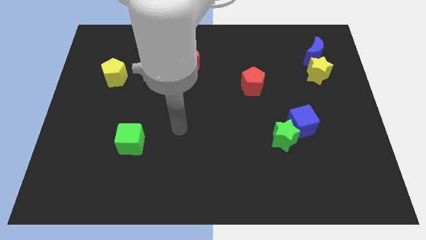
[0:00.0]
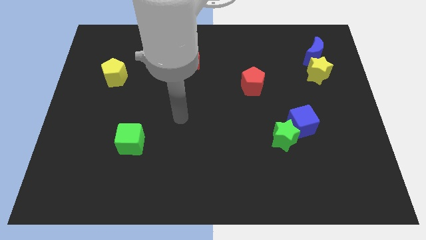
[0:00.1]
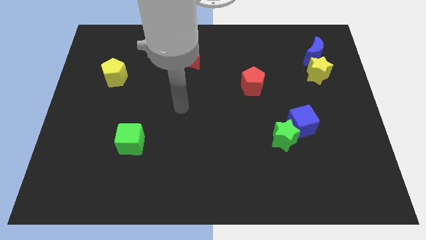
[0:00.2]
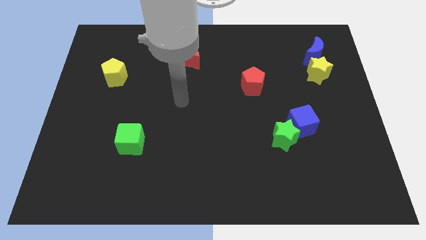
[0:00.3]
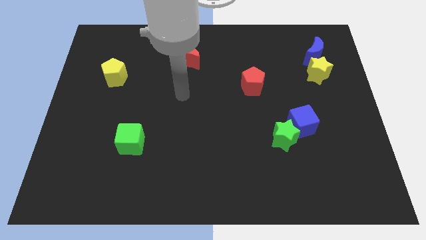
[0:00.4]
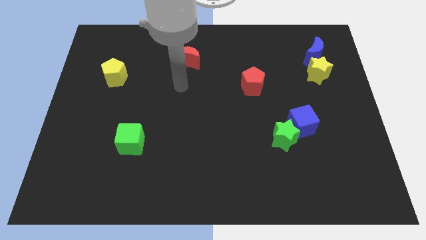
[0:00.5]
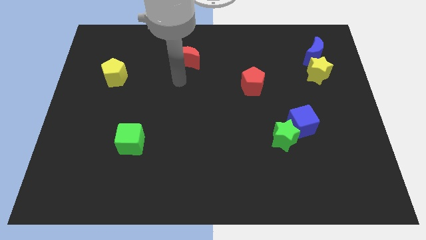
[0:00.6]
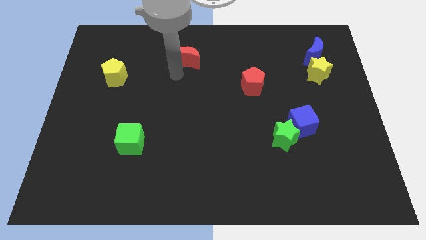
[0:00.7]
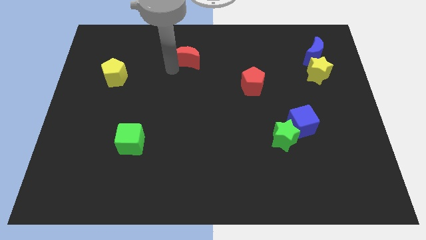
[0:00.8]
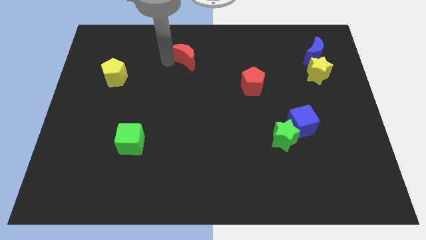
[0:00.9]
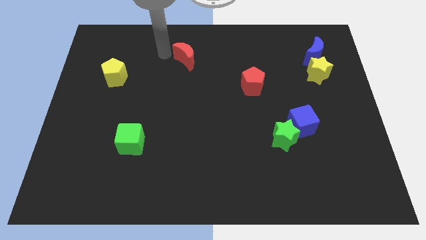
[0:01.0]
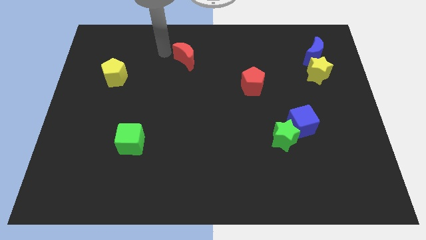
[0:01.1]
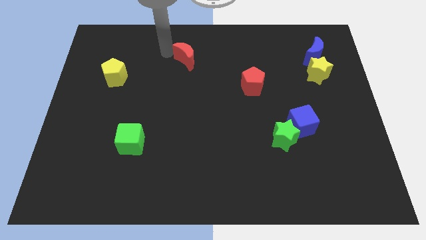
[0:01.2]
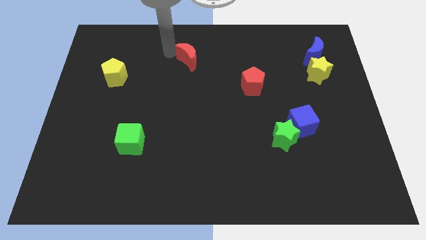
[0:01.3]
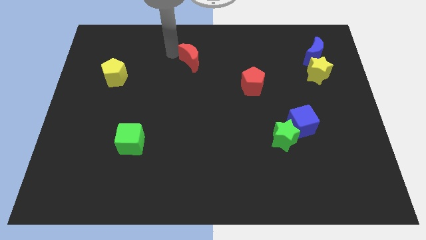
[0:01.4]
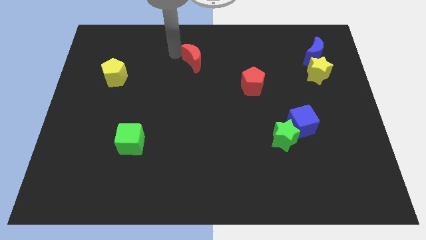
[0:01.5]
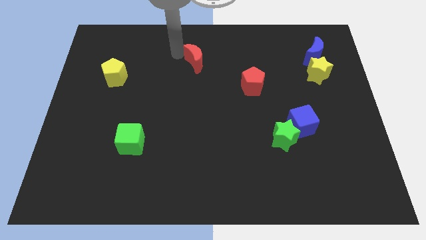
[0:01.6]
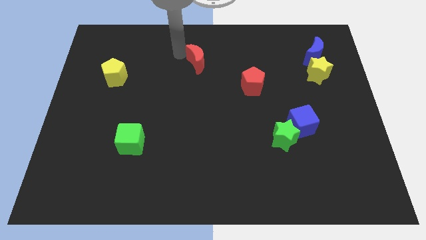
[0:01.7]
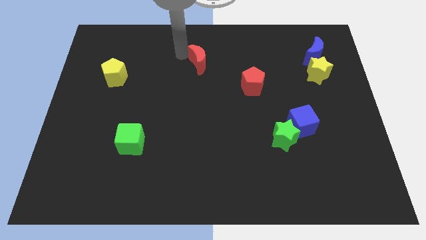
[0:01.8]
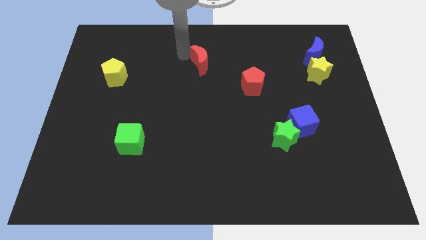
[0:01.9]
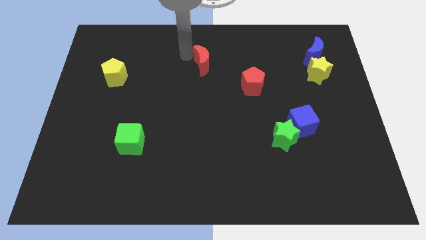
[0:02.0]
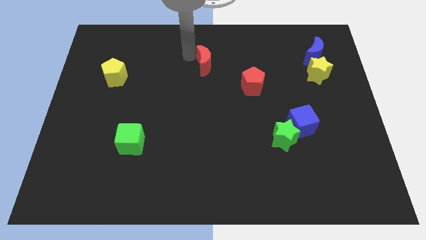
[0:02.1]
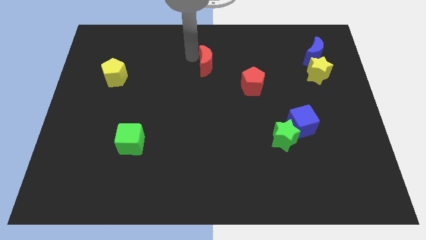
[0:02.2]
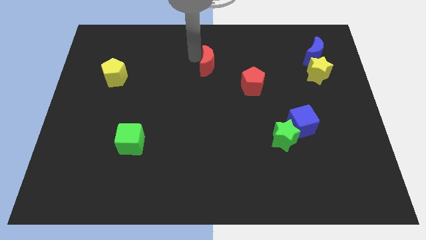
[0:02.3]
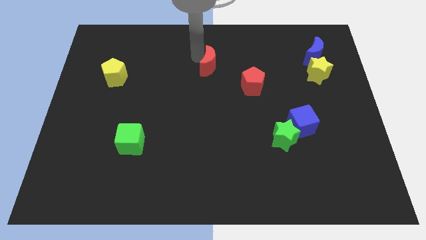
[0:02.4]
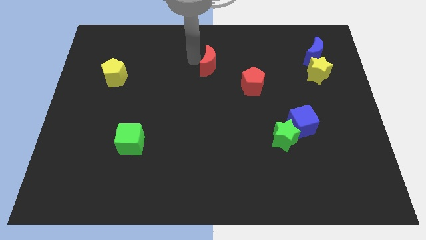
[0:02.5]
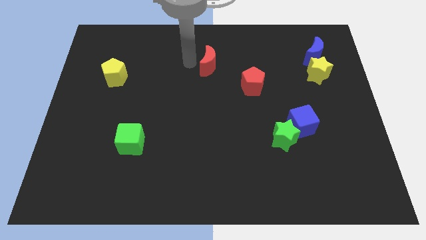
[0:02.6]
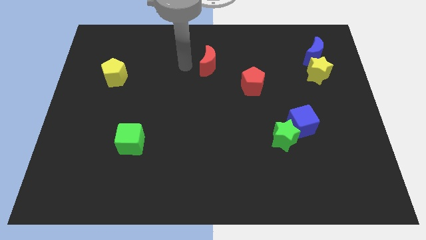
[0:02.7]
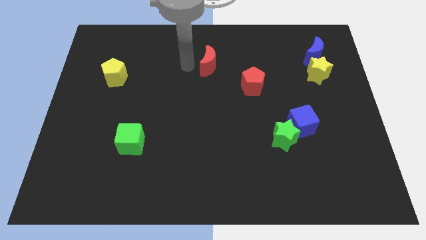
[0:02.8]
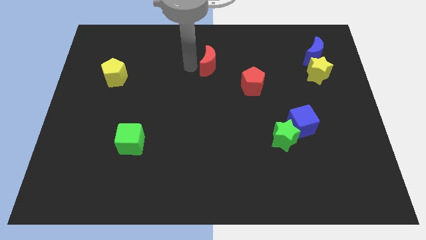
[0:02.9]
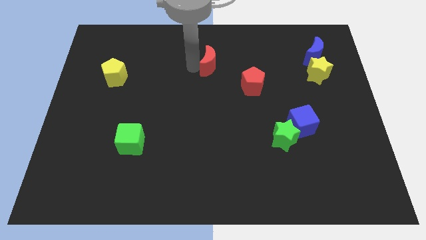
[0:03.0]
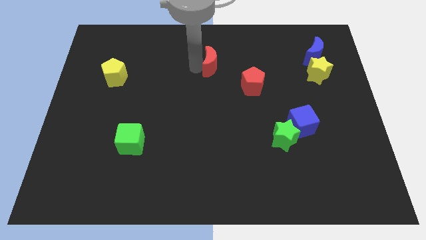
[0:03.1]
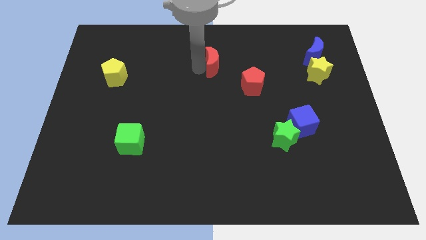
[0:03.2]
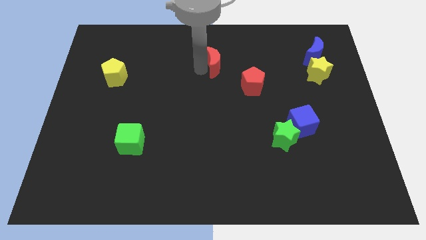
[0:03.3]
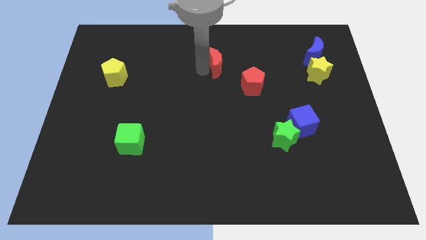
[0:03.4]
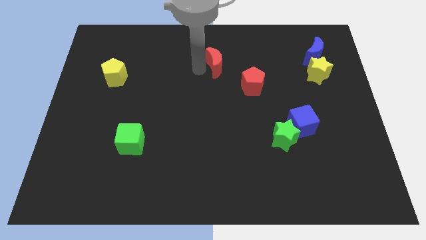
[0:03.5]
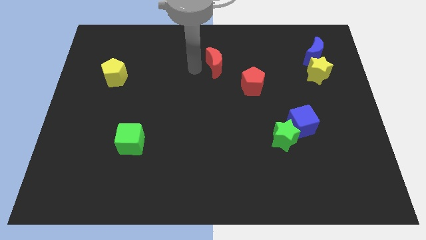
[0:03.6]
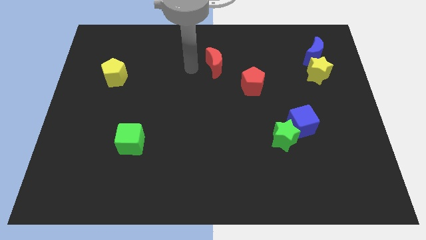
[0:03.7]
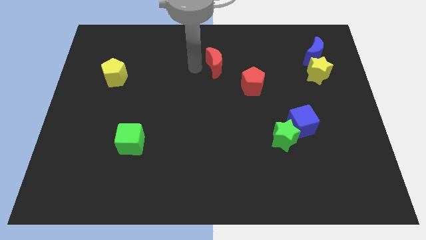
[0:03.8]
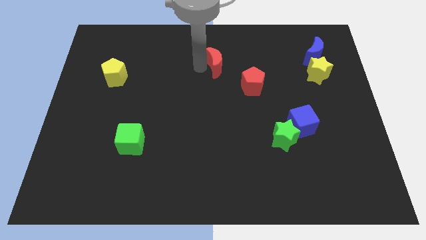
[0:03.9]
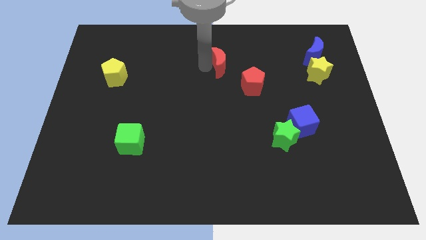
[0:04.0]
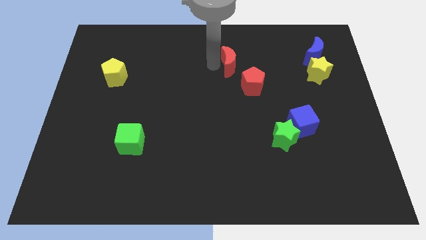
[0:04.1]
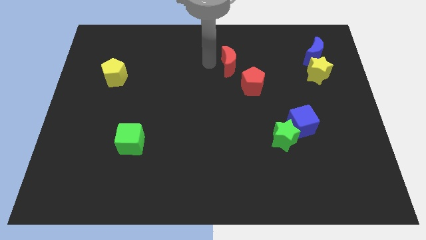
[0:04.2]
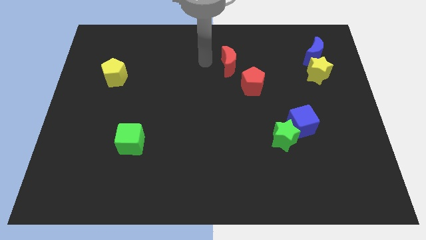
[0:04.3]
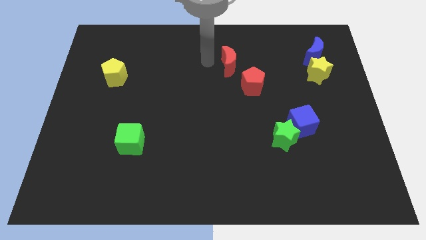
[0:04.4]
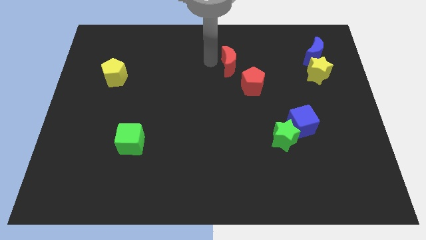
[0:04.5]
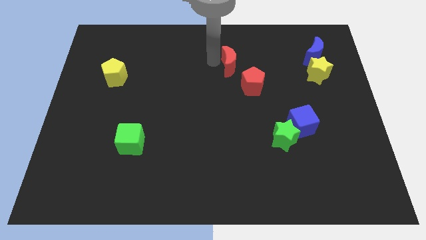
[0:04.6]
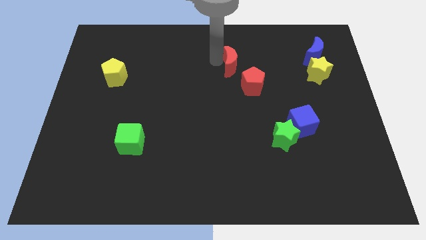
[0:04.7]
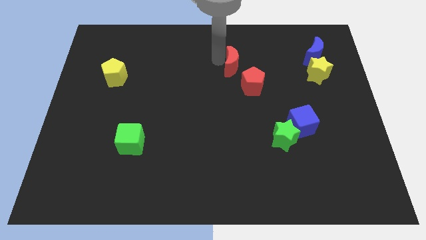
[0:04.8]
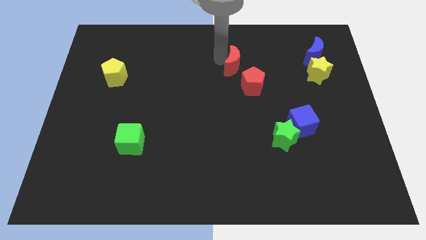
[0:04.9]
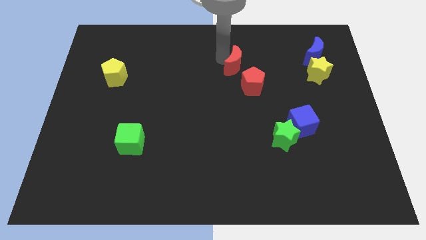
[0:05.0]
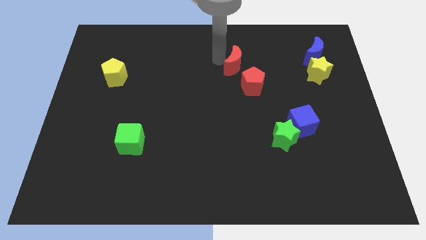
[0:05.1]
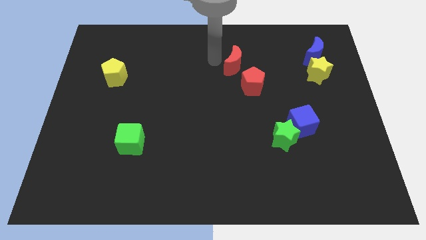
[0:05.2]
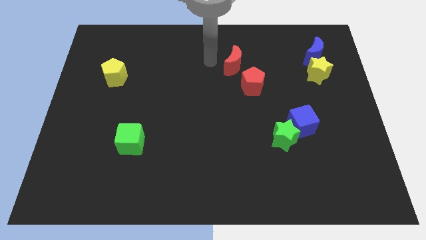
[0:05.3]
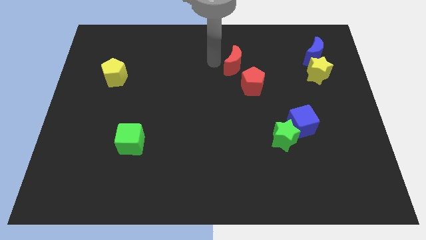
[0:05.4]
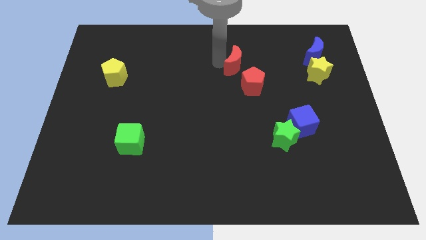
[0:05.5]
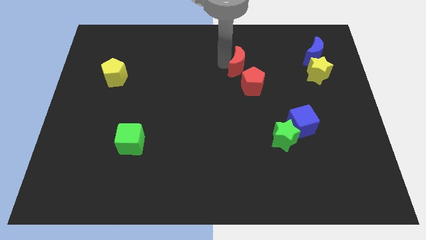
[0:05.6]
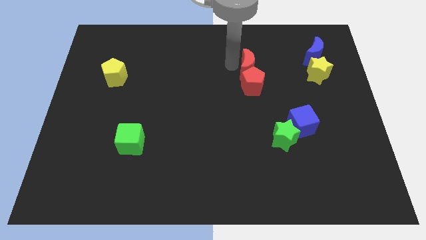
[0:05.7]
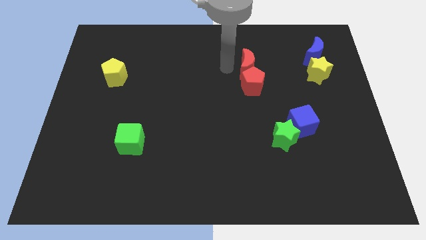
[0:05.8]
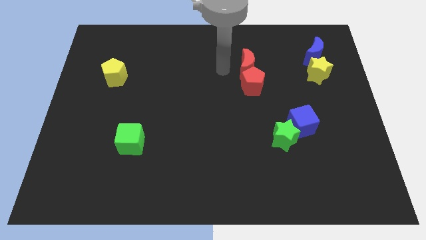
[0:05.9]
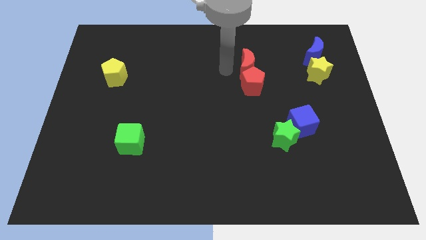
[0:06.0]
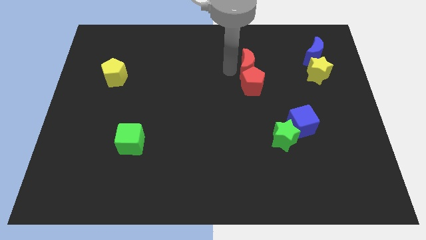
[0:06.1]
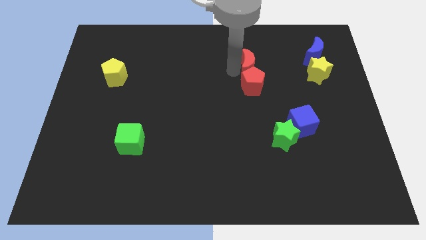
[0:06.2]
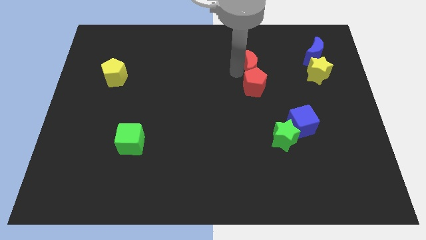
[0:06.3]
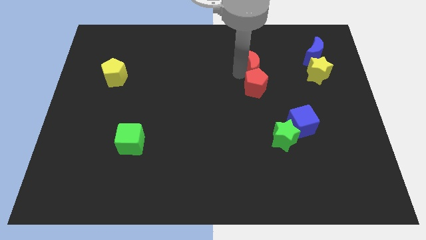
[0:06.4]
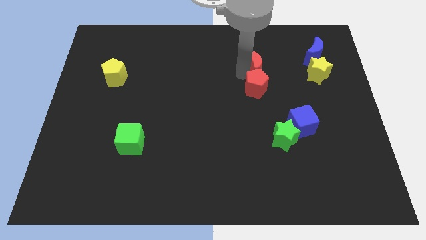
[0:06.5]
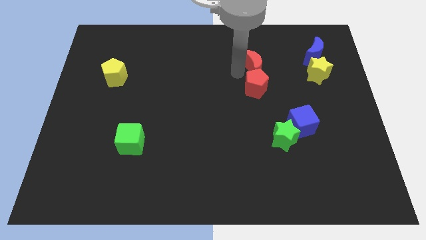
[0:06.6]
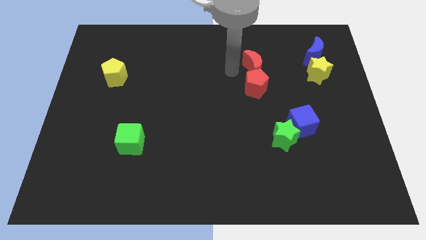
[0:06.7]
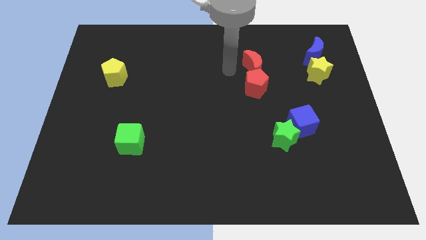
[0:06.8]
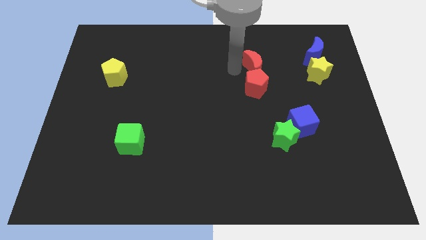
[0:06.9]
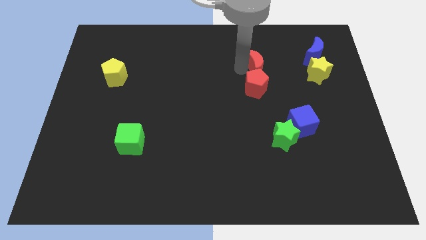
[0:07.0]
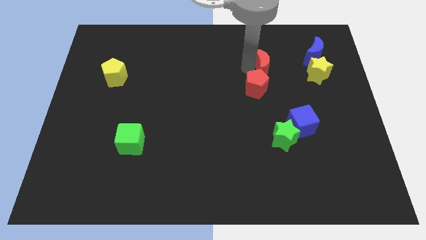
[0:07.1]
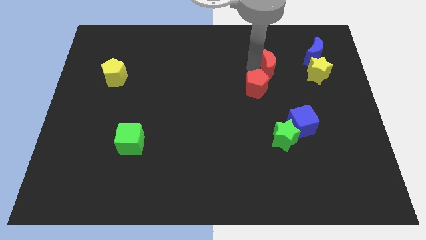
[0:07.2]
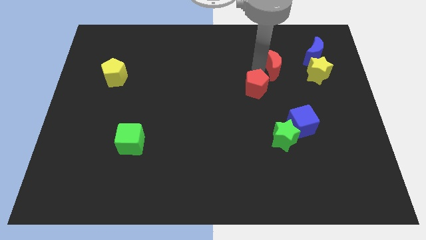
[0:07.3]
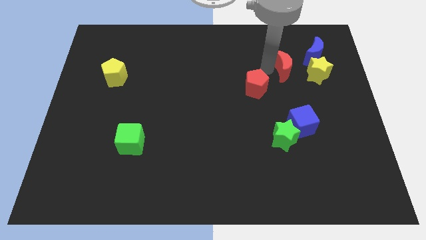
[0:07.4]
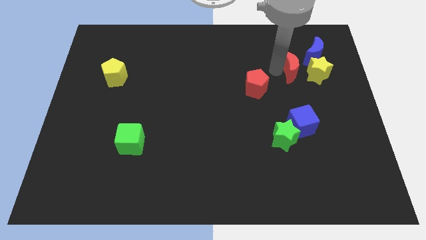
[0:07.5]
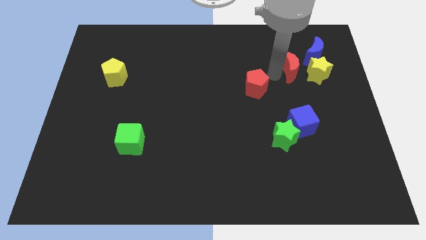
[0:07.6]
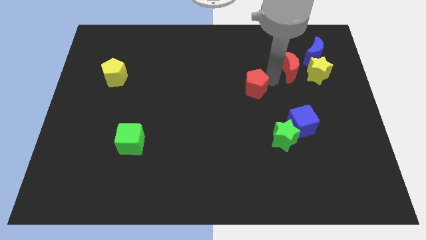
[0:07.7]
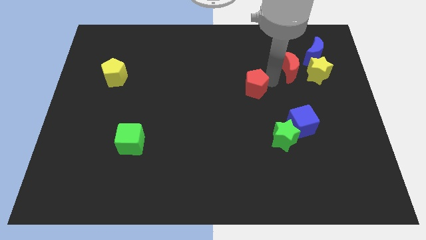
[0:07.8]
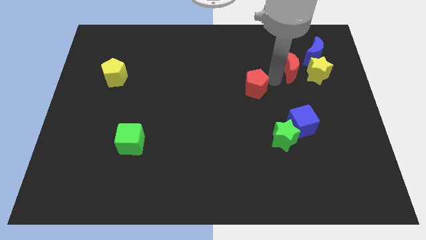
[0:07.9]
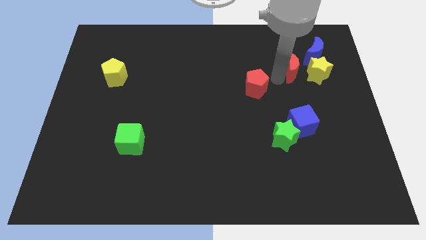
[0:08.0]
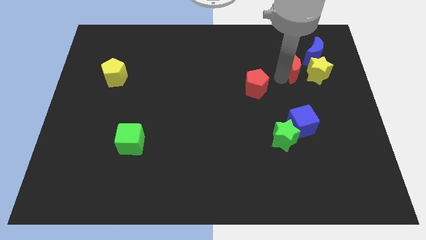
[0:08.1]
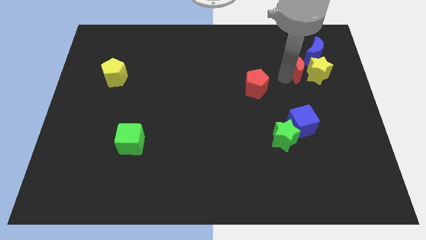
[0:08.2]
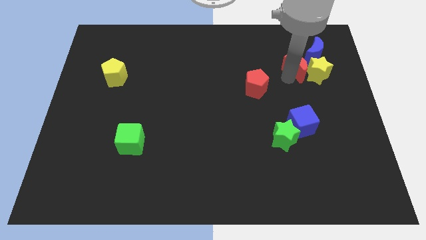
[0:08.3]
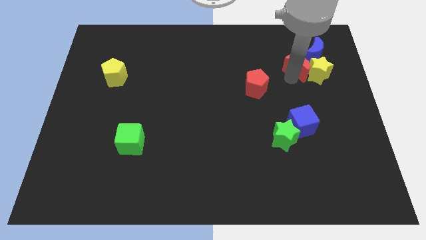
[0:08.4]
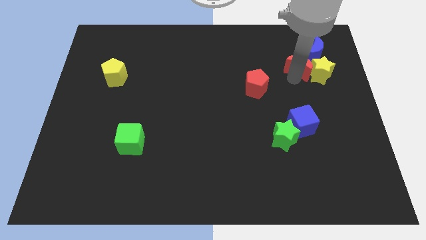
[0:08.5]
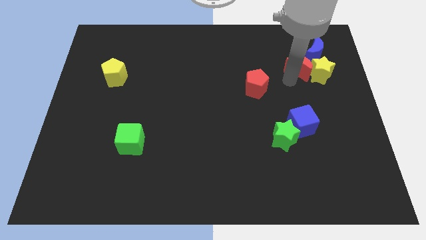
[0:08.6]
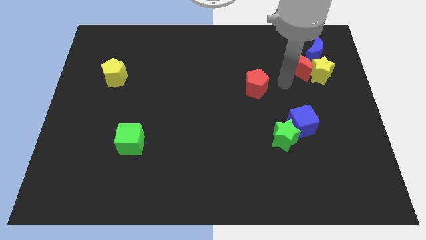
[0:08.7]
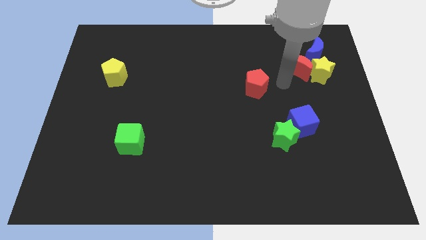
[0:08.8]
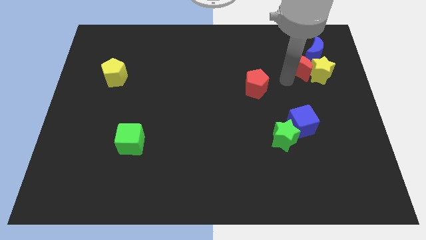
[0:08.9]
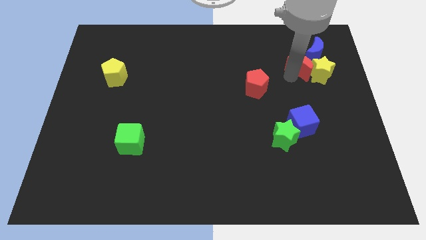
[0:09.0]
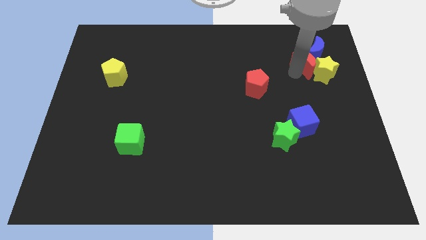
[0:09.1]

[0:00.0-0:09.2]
slide the red moon to the blue moon
